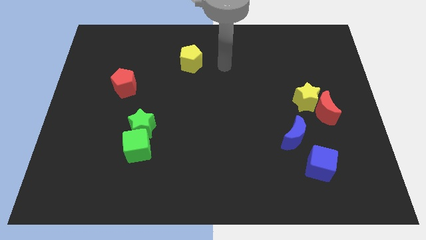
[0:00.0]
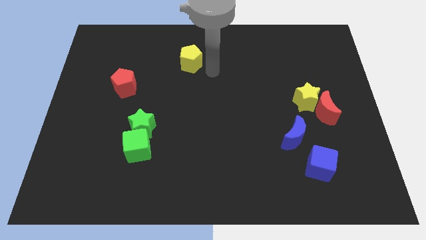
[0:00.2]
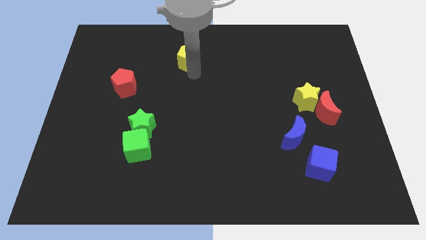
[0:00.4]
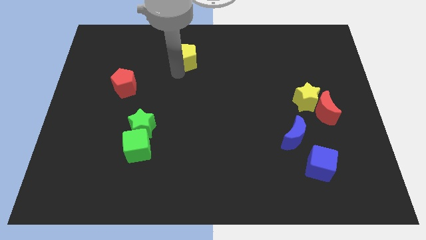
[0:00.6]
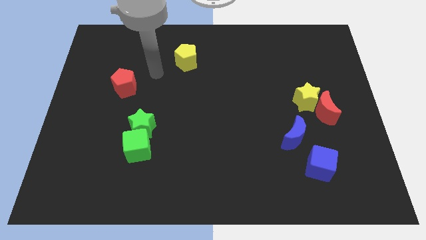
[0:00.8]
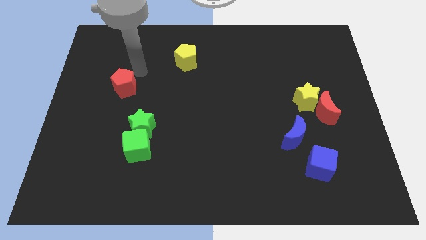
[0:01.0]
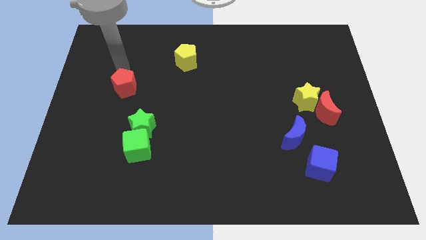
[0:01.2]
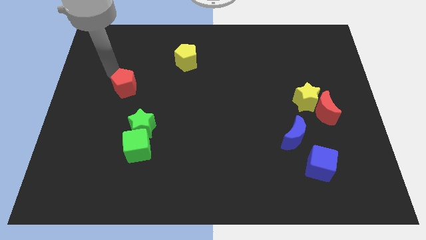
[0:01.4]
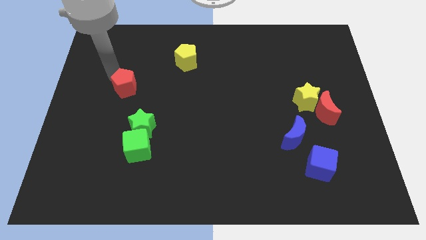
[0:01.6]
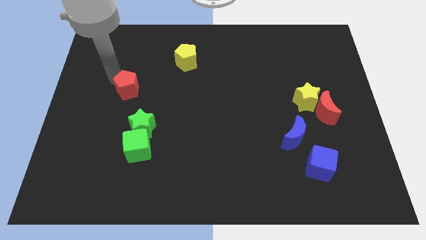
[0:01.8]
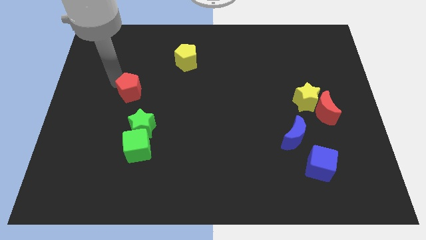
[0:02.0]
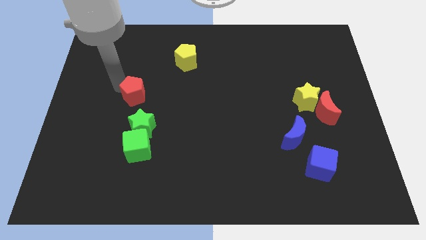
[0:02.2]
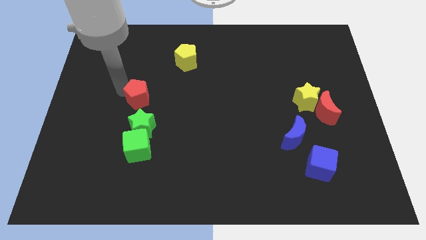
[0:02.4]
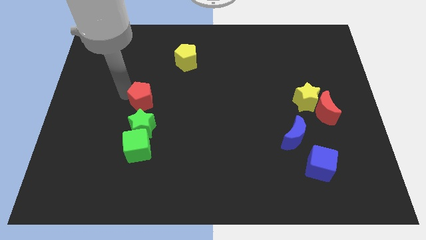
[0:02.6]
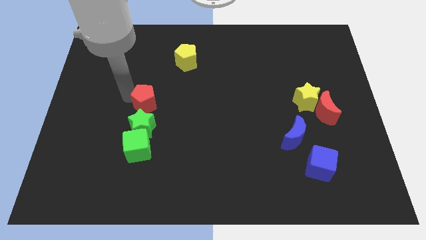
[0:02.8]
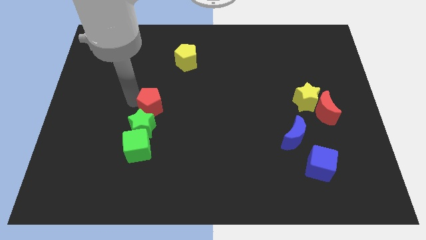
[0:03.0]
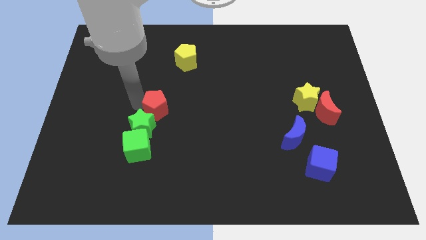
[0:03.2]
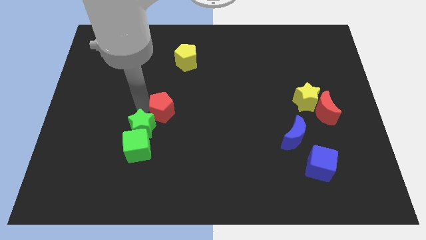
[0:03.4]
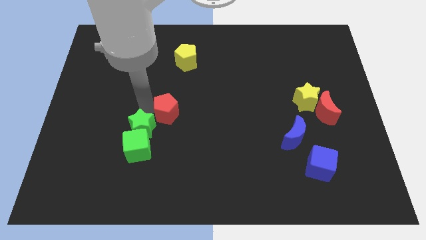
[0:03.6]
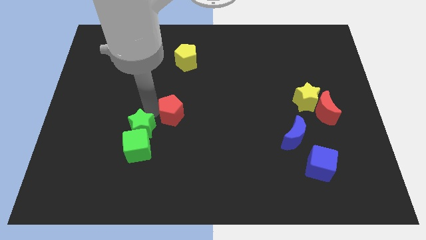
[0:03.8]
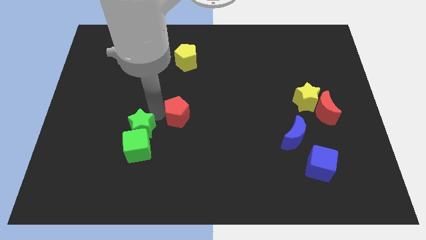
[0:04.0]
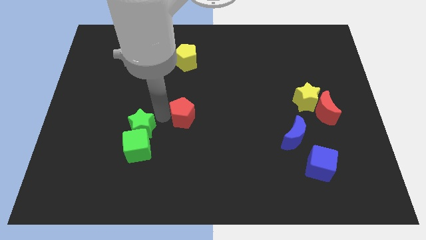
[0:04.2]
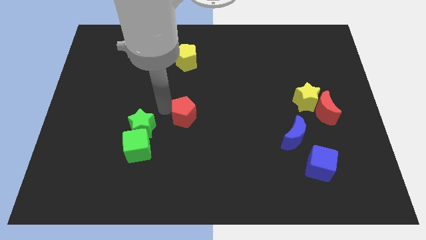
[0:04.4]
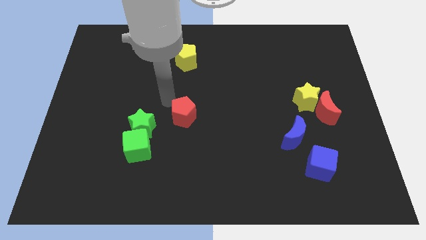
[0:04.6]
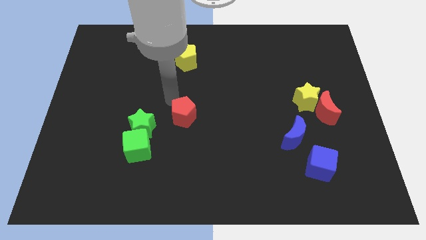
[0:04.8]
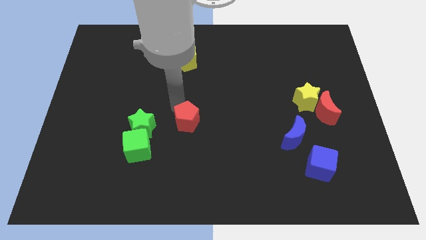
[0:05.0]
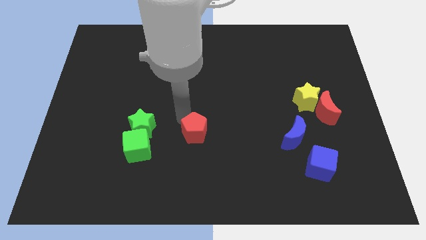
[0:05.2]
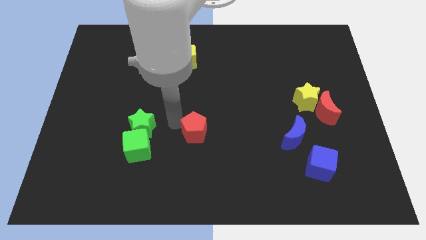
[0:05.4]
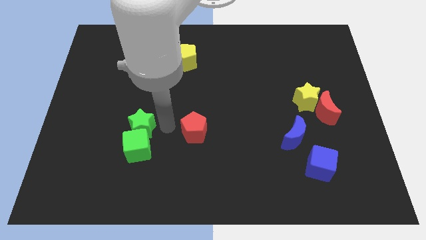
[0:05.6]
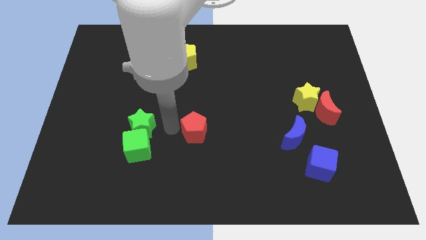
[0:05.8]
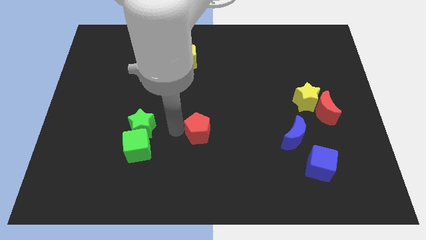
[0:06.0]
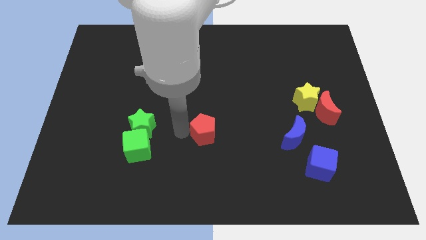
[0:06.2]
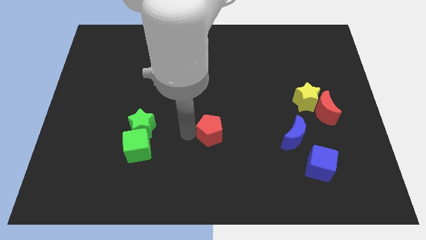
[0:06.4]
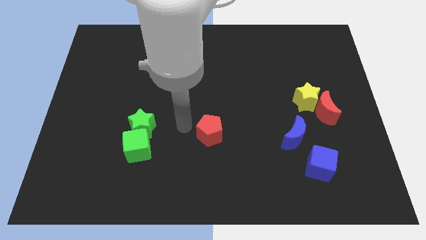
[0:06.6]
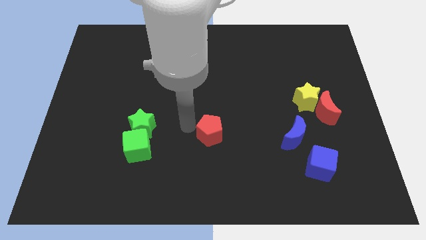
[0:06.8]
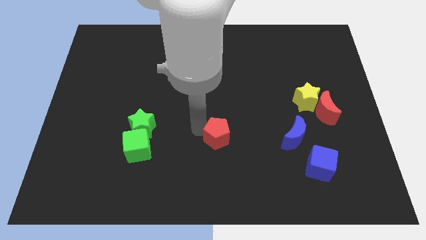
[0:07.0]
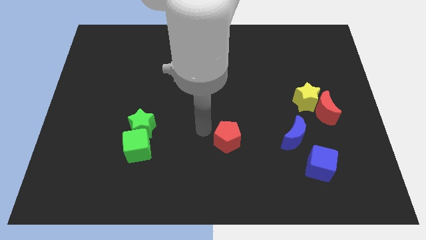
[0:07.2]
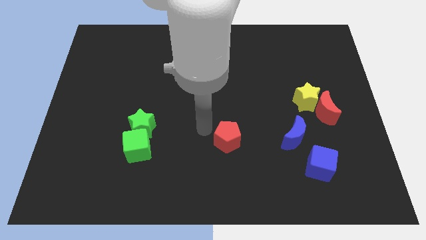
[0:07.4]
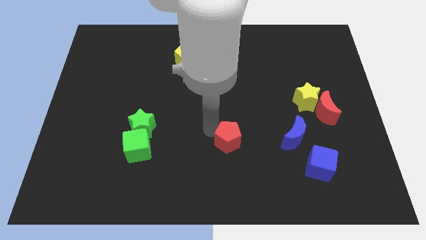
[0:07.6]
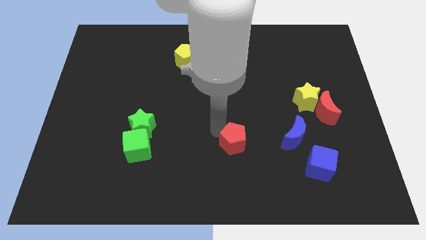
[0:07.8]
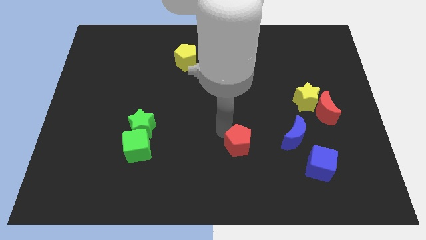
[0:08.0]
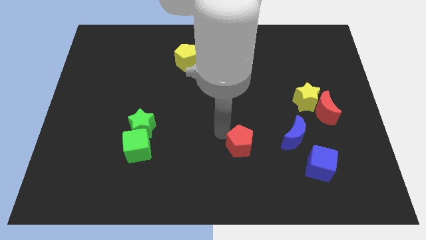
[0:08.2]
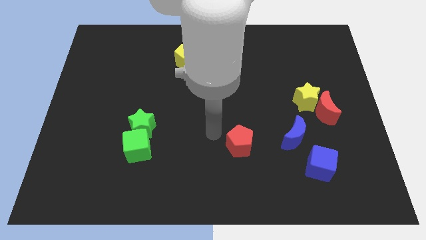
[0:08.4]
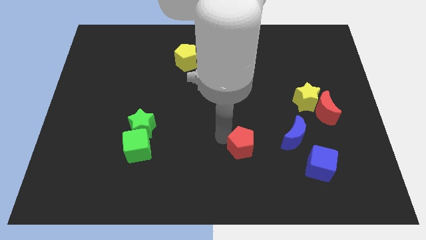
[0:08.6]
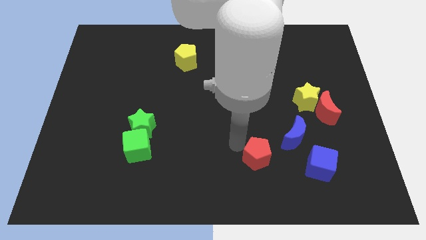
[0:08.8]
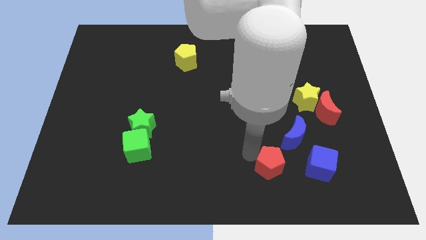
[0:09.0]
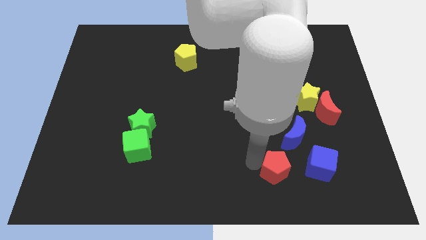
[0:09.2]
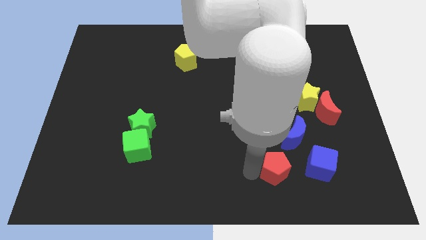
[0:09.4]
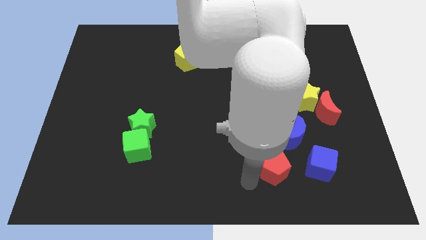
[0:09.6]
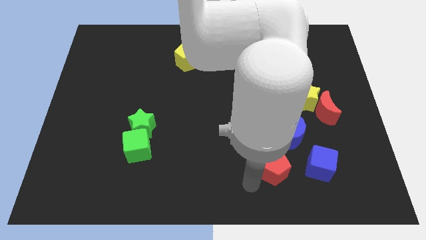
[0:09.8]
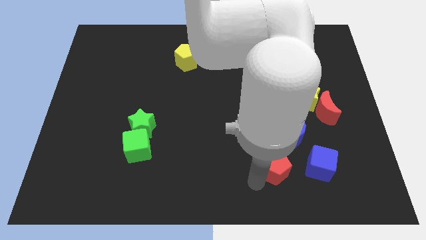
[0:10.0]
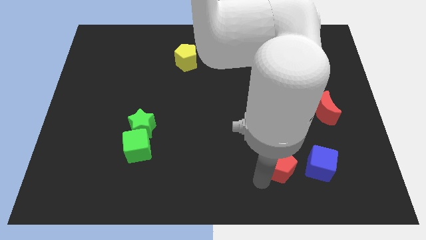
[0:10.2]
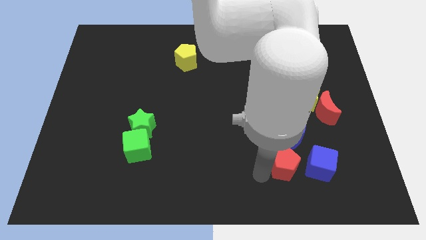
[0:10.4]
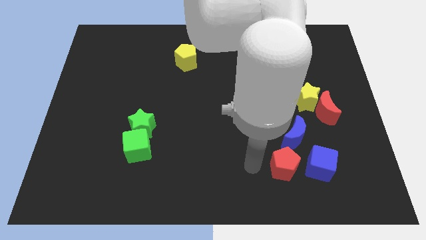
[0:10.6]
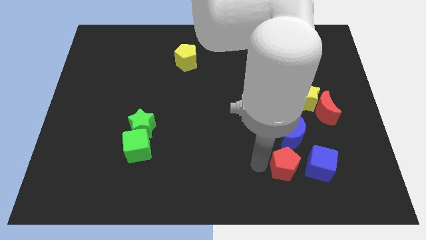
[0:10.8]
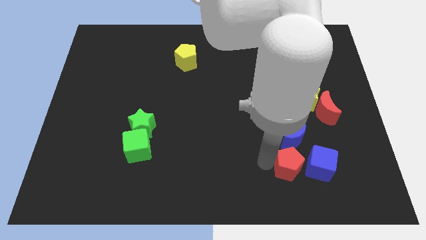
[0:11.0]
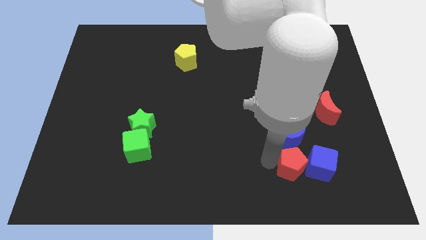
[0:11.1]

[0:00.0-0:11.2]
put the red pentagon to the blue cube

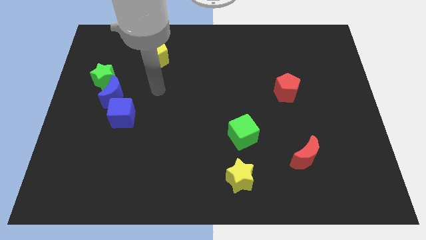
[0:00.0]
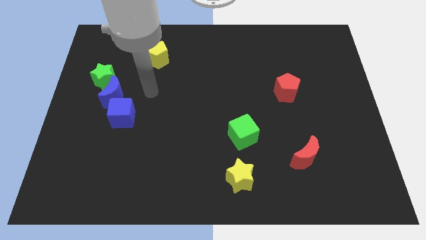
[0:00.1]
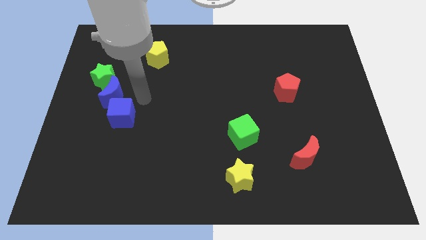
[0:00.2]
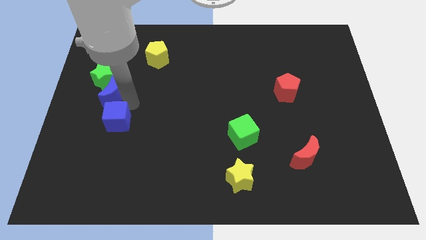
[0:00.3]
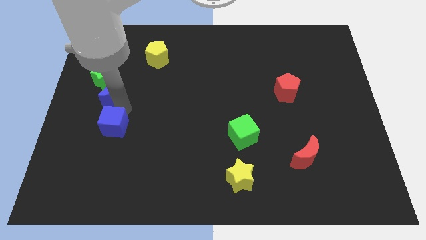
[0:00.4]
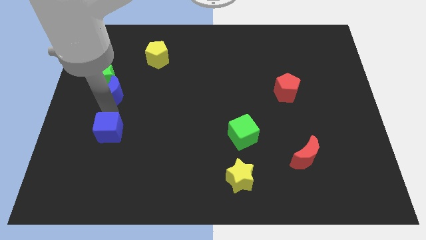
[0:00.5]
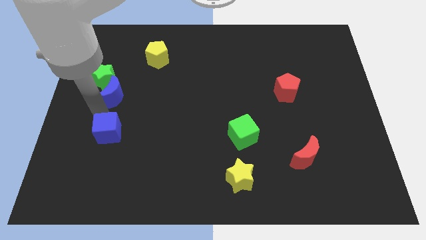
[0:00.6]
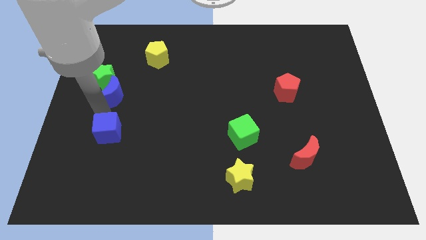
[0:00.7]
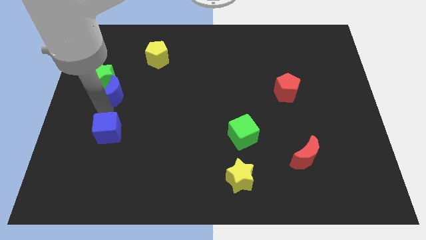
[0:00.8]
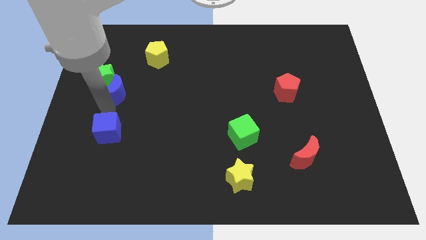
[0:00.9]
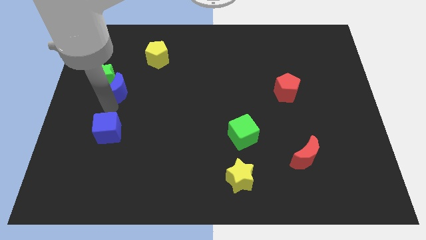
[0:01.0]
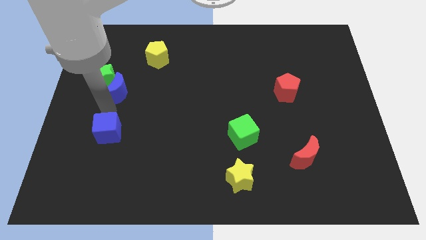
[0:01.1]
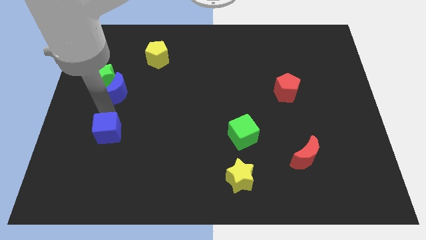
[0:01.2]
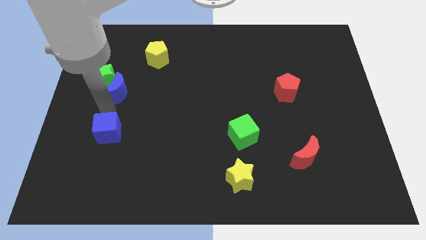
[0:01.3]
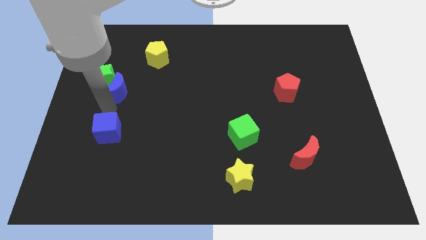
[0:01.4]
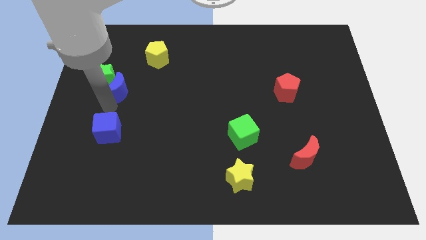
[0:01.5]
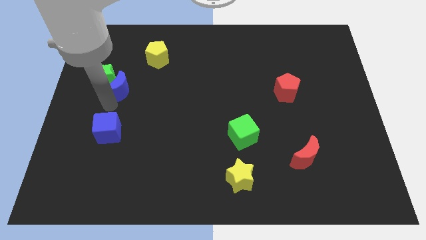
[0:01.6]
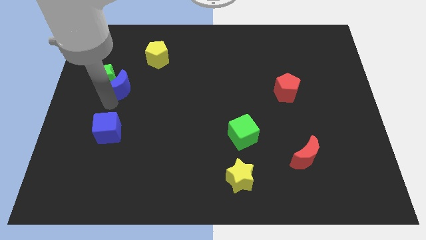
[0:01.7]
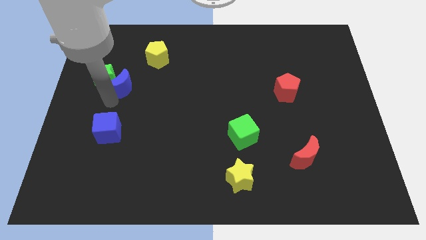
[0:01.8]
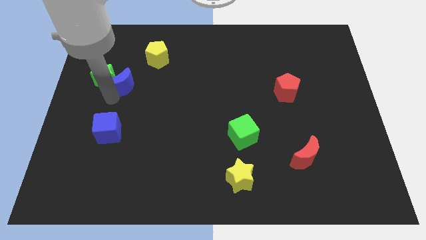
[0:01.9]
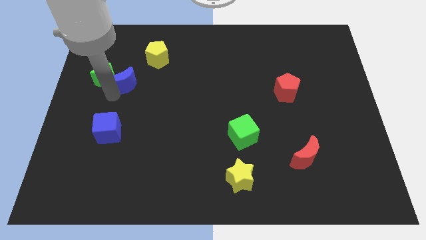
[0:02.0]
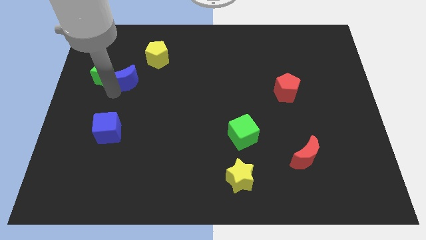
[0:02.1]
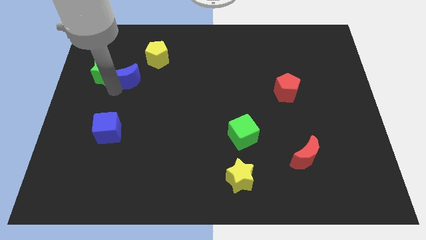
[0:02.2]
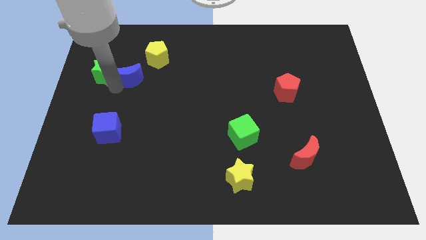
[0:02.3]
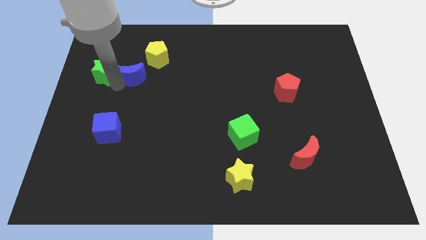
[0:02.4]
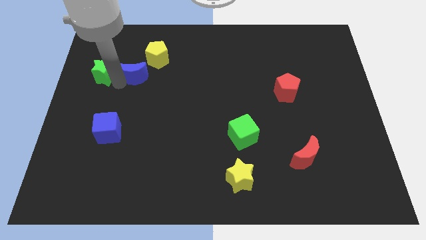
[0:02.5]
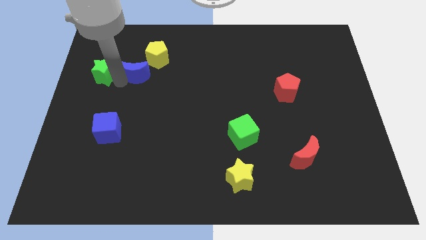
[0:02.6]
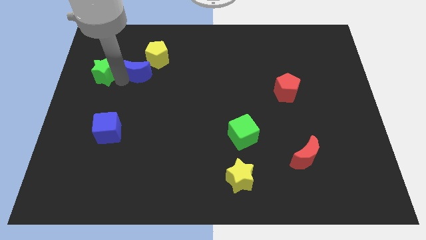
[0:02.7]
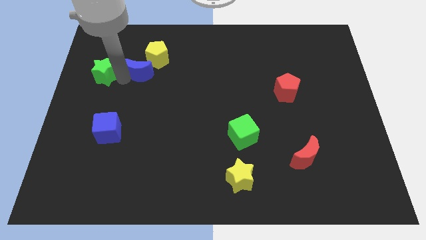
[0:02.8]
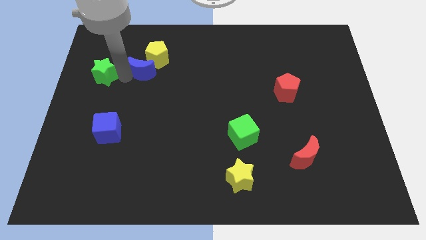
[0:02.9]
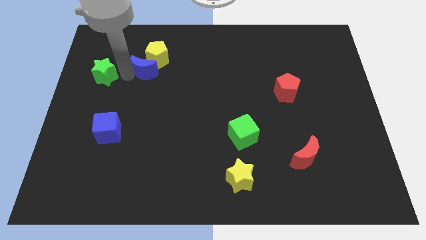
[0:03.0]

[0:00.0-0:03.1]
put the blue moon next to the yellow pentagon
